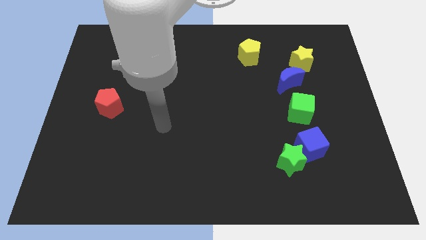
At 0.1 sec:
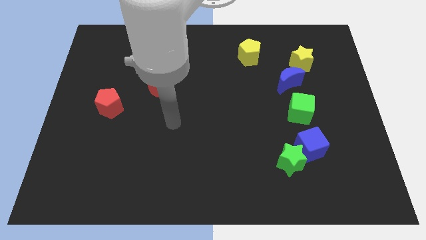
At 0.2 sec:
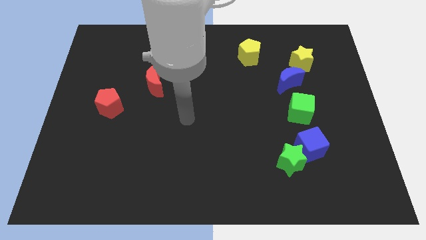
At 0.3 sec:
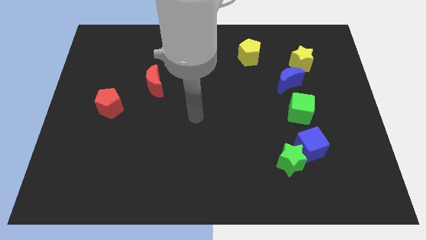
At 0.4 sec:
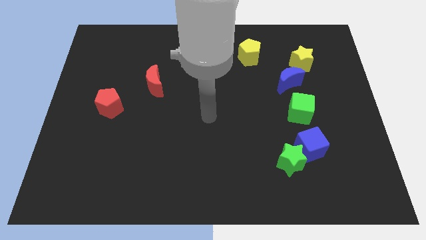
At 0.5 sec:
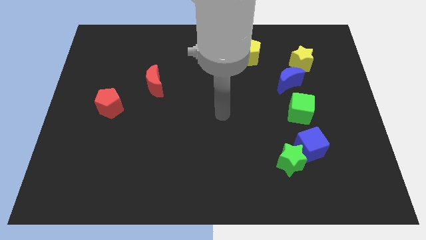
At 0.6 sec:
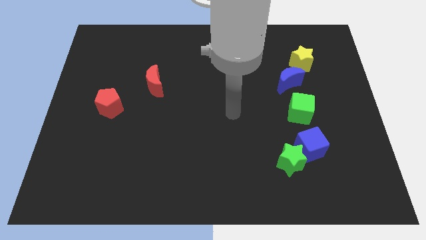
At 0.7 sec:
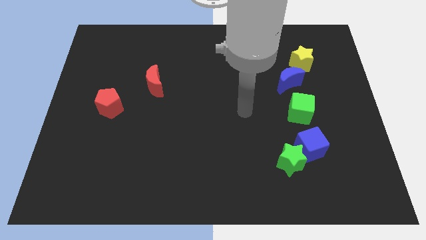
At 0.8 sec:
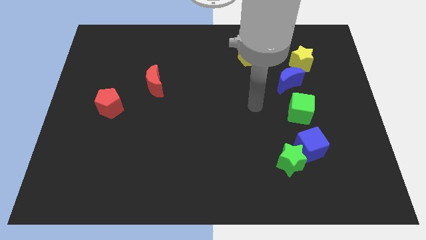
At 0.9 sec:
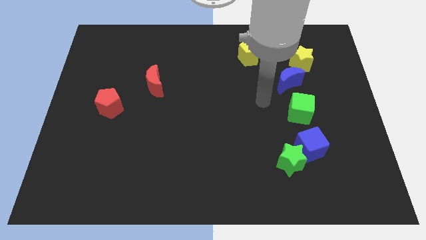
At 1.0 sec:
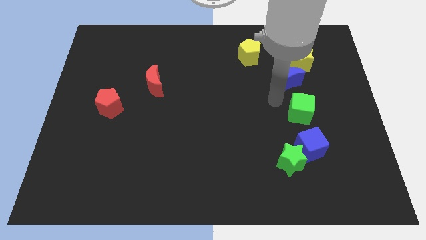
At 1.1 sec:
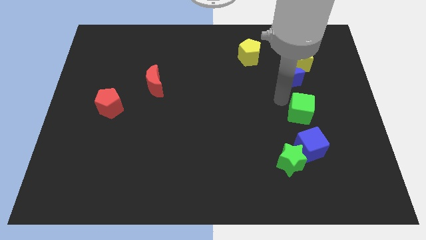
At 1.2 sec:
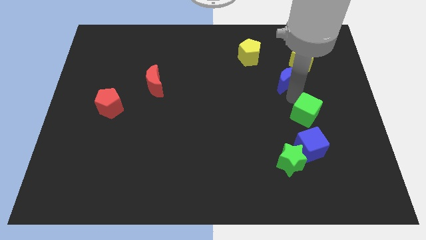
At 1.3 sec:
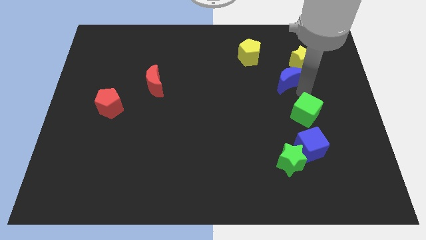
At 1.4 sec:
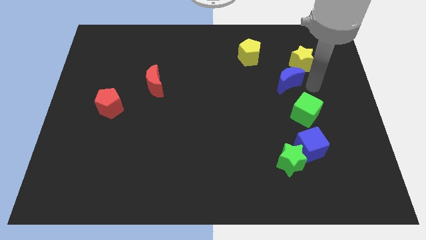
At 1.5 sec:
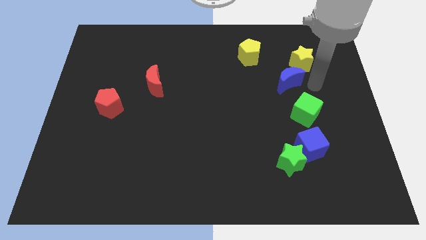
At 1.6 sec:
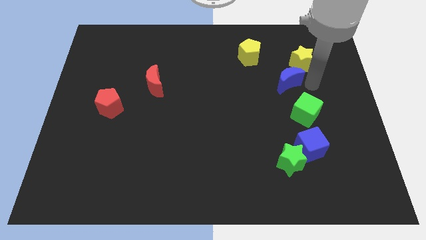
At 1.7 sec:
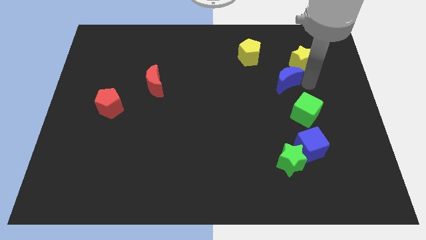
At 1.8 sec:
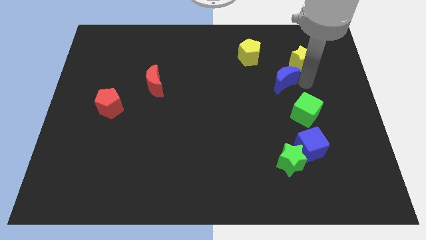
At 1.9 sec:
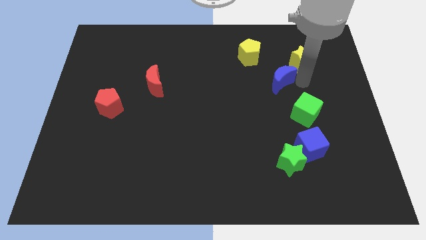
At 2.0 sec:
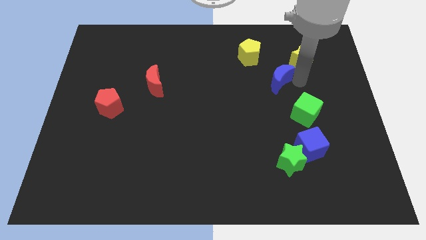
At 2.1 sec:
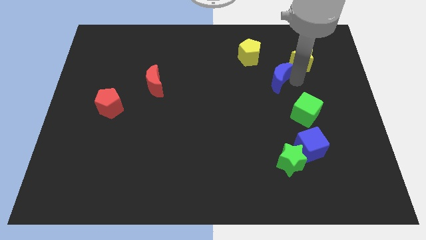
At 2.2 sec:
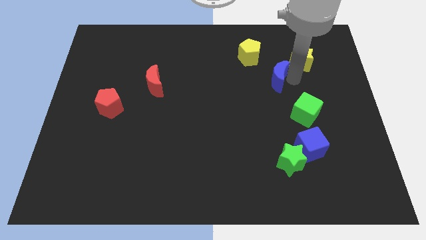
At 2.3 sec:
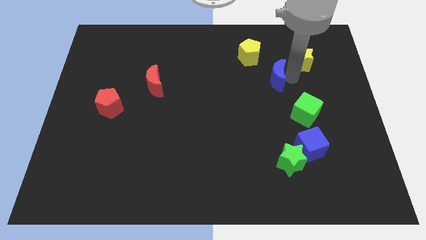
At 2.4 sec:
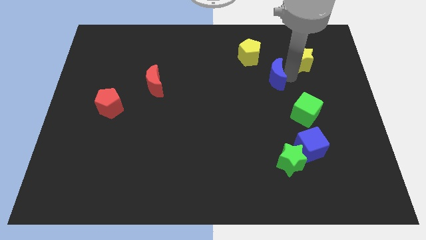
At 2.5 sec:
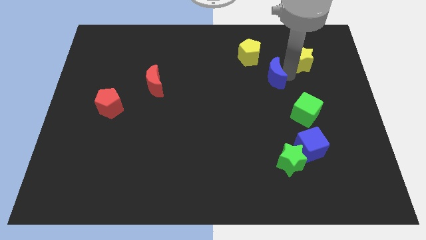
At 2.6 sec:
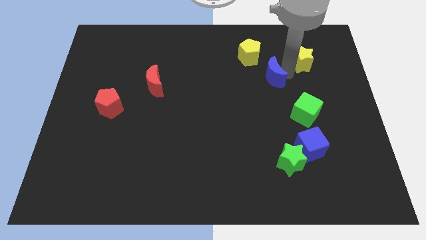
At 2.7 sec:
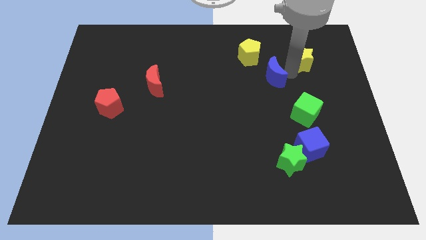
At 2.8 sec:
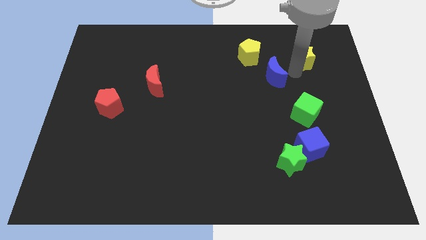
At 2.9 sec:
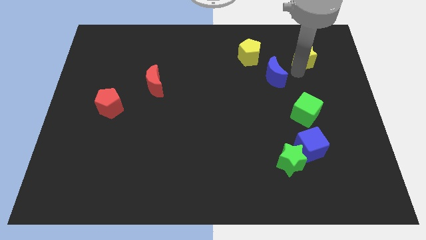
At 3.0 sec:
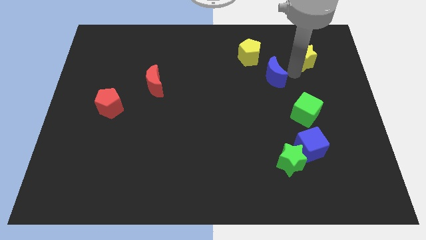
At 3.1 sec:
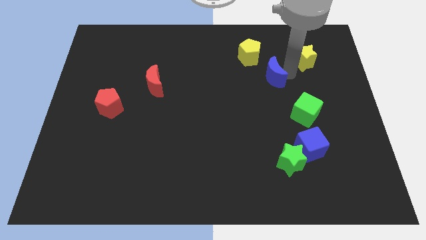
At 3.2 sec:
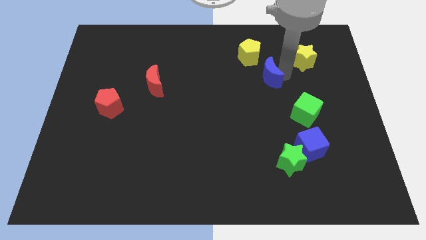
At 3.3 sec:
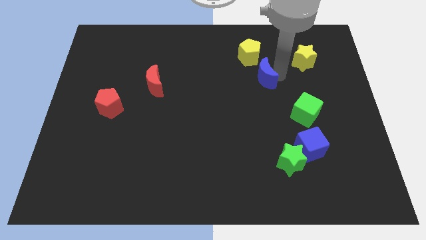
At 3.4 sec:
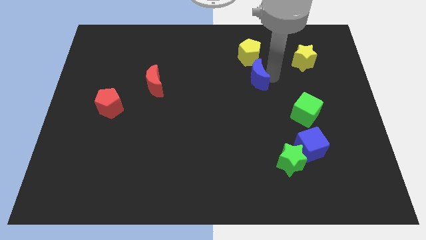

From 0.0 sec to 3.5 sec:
slightly slide the blue moon left

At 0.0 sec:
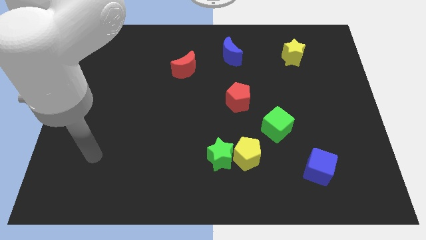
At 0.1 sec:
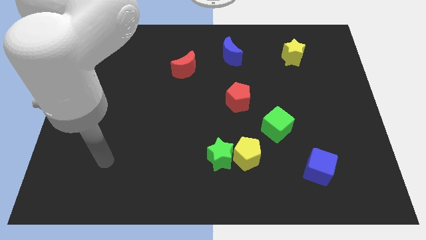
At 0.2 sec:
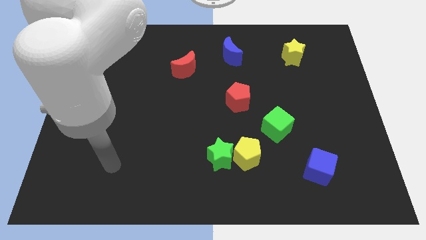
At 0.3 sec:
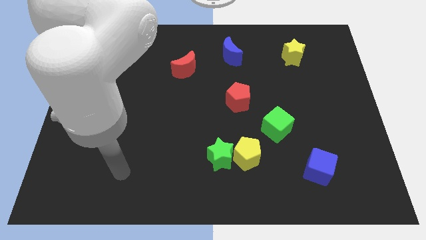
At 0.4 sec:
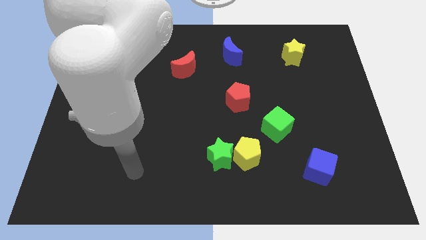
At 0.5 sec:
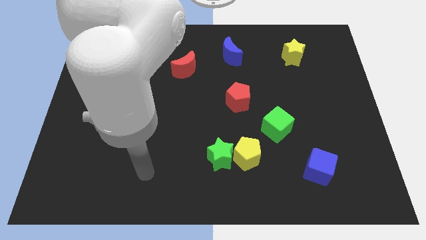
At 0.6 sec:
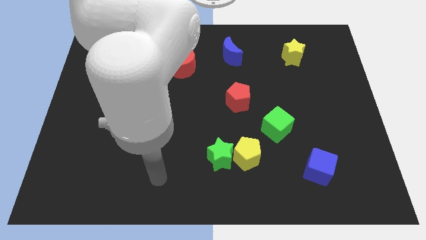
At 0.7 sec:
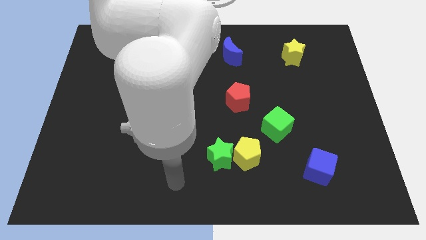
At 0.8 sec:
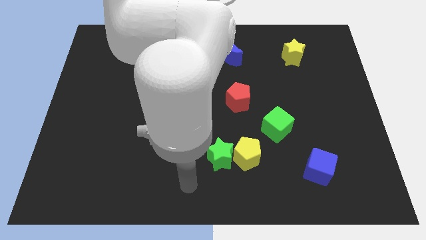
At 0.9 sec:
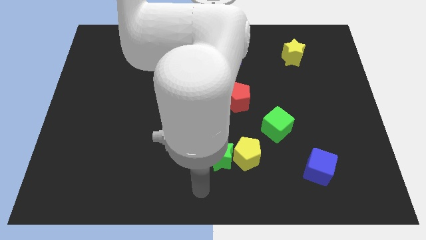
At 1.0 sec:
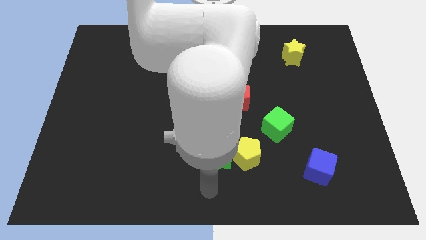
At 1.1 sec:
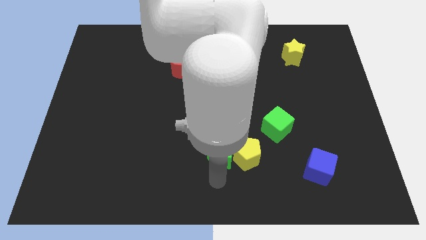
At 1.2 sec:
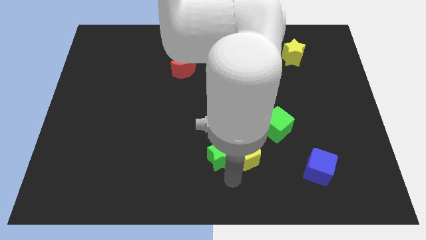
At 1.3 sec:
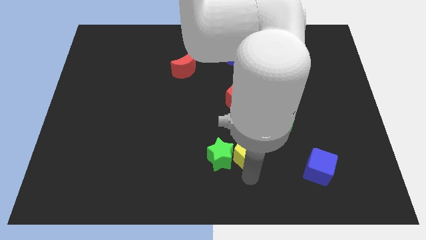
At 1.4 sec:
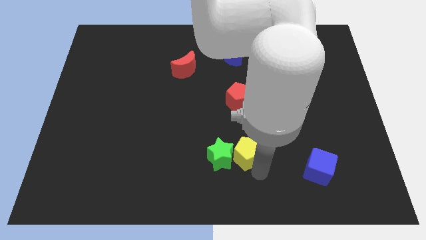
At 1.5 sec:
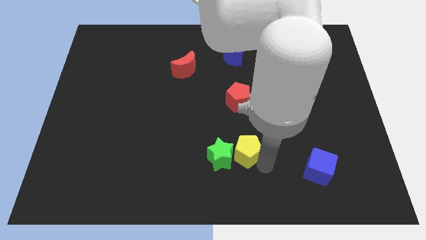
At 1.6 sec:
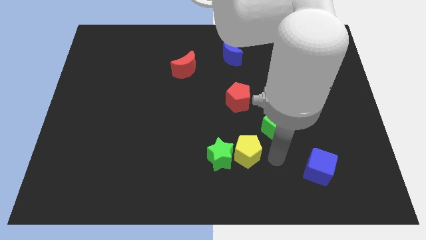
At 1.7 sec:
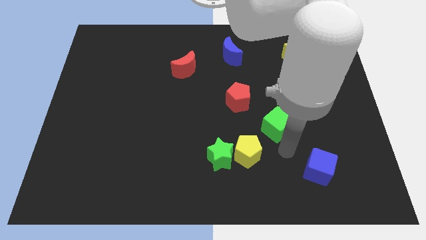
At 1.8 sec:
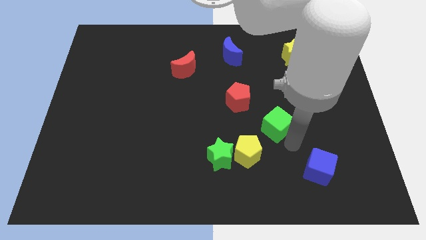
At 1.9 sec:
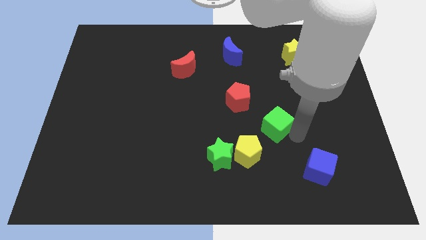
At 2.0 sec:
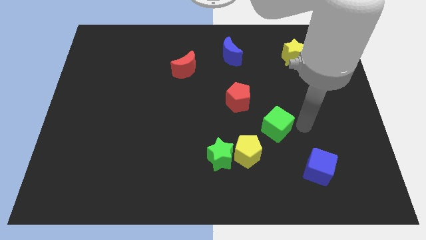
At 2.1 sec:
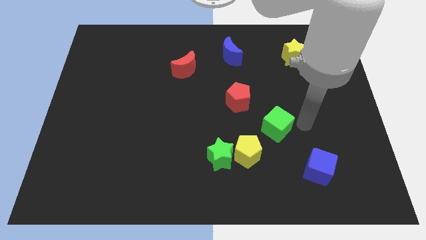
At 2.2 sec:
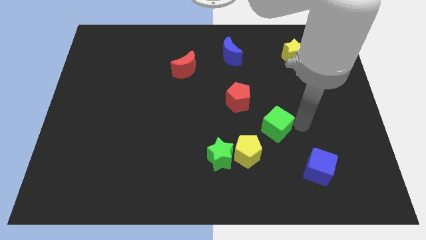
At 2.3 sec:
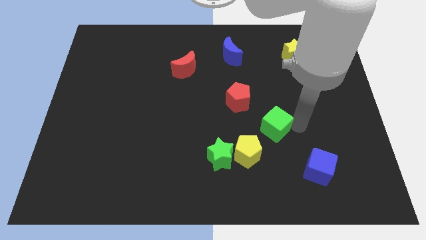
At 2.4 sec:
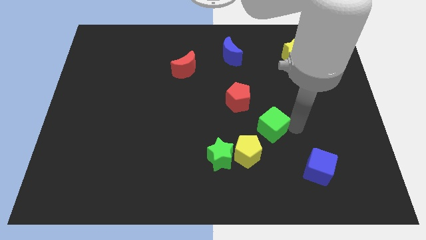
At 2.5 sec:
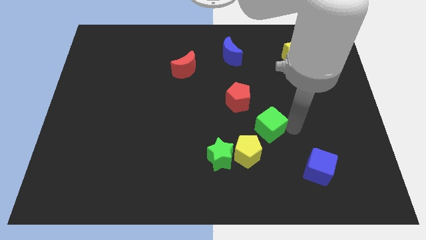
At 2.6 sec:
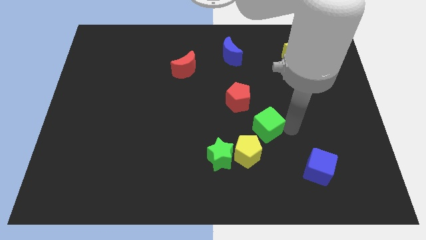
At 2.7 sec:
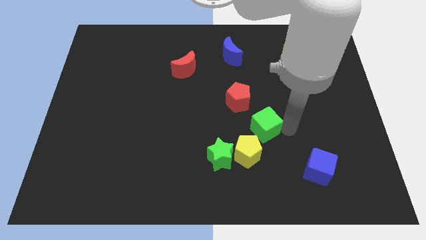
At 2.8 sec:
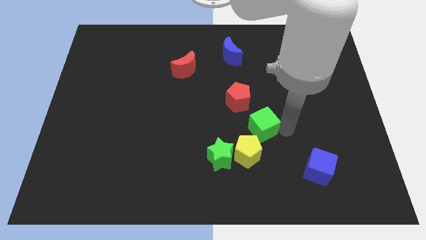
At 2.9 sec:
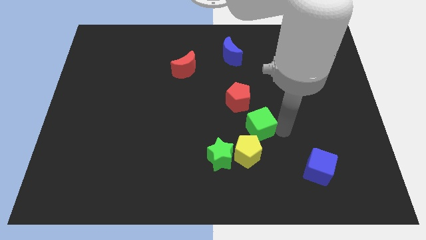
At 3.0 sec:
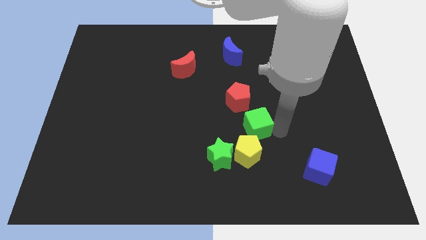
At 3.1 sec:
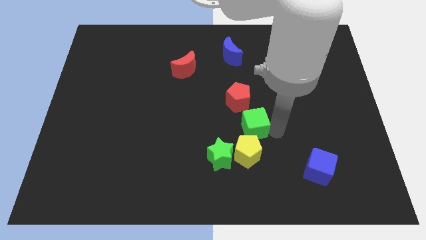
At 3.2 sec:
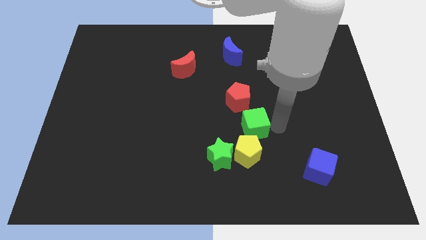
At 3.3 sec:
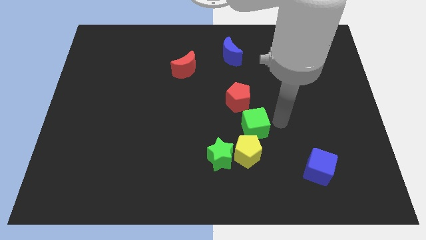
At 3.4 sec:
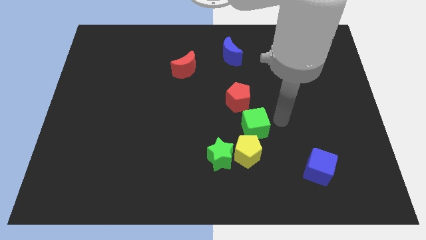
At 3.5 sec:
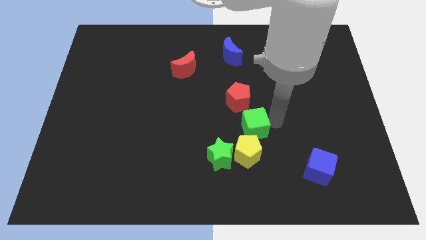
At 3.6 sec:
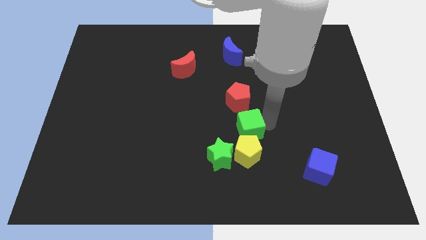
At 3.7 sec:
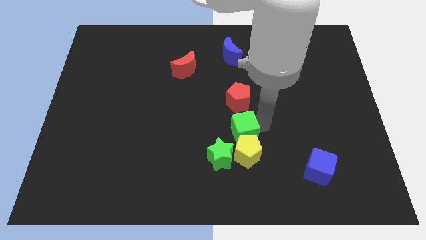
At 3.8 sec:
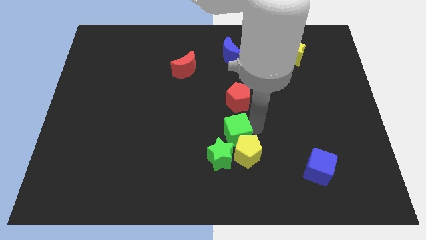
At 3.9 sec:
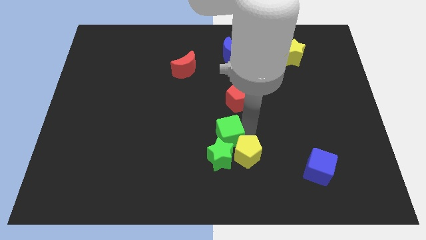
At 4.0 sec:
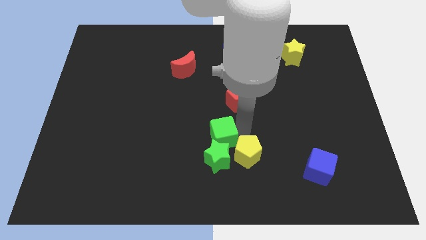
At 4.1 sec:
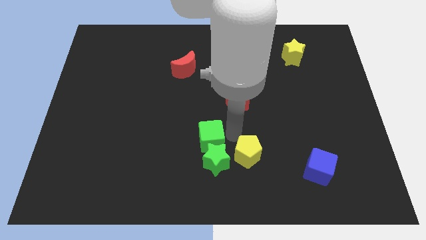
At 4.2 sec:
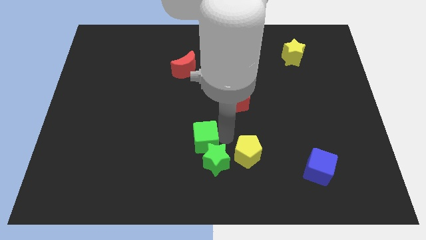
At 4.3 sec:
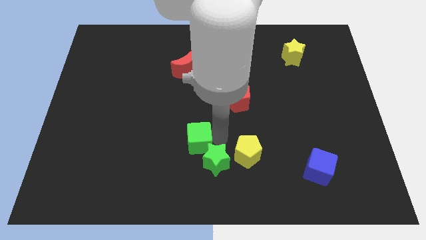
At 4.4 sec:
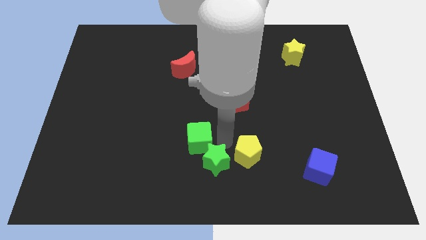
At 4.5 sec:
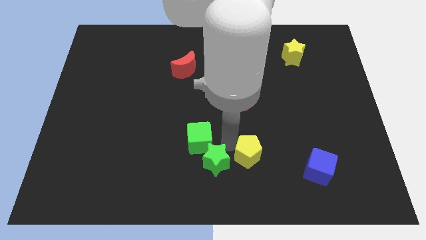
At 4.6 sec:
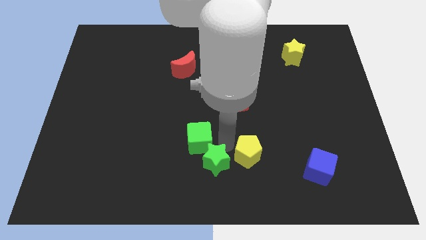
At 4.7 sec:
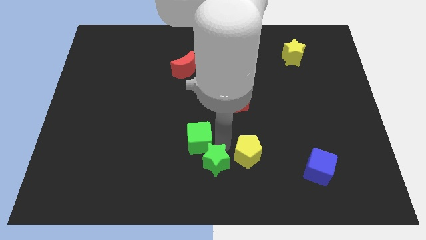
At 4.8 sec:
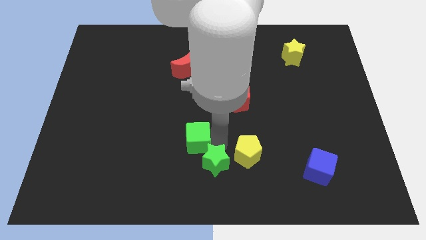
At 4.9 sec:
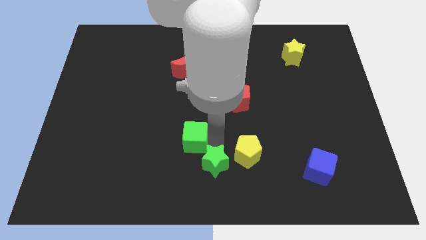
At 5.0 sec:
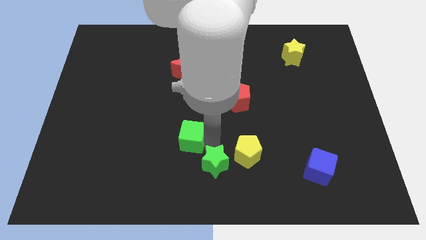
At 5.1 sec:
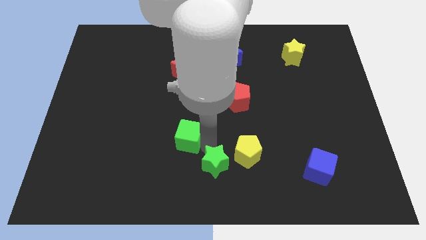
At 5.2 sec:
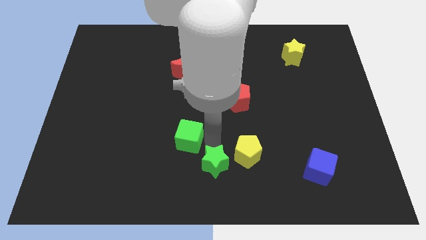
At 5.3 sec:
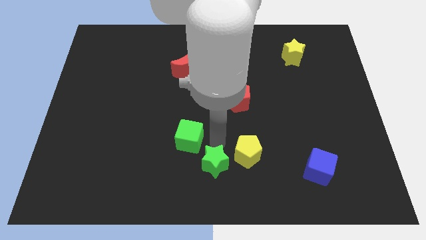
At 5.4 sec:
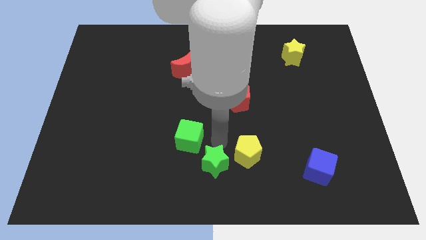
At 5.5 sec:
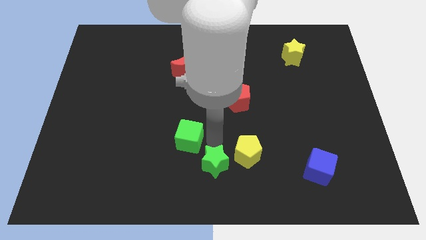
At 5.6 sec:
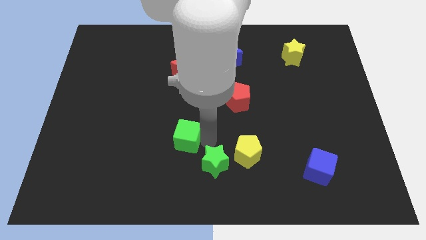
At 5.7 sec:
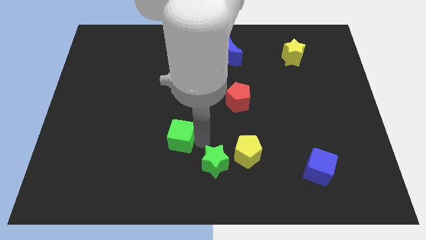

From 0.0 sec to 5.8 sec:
slide the green cube to the left
